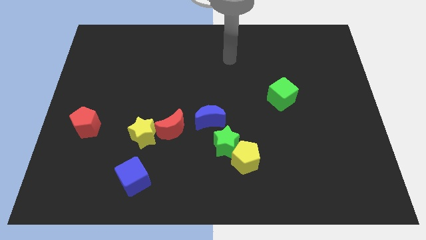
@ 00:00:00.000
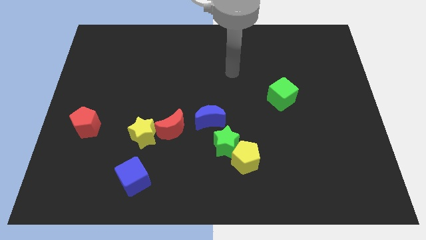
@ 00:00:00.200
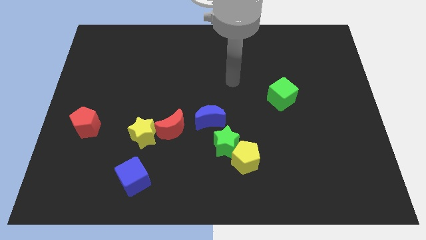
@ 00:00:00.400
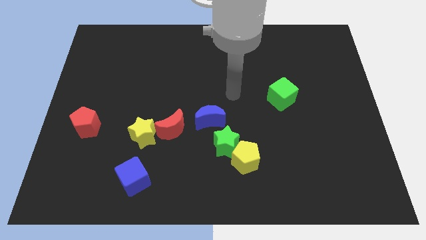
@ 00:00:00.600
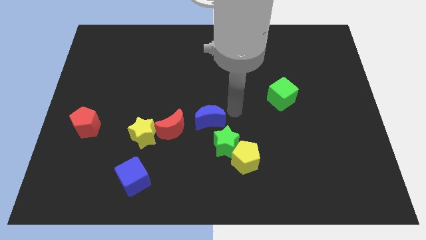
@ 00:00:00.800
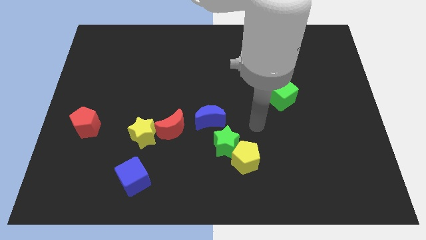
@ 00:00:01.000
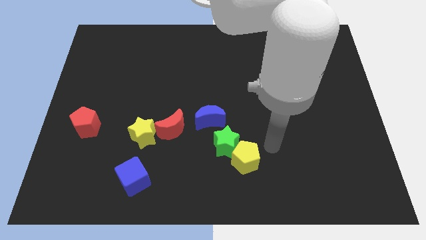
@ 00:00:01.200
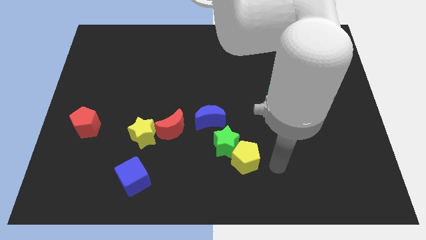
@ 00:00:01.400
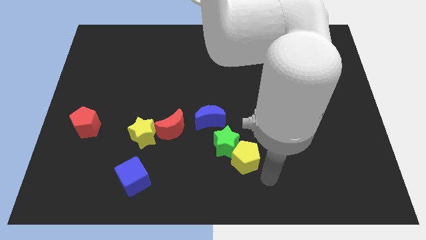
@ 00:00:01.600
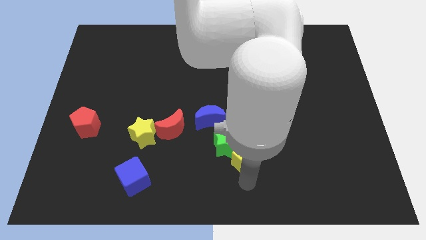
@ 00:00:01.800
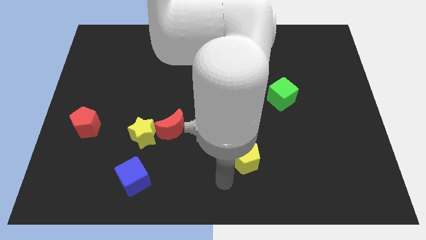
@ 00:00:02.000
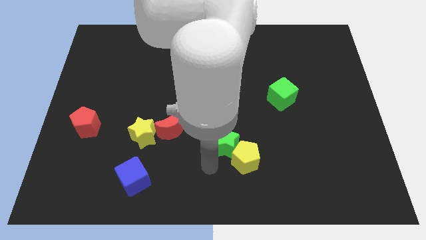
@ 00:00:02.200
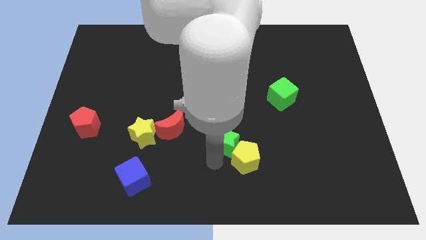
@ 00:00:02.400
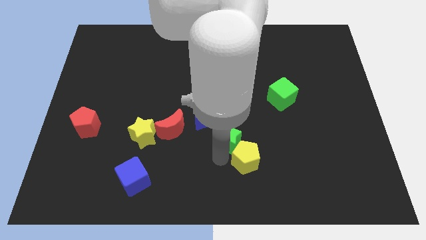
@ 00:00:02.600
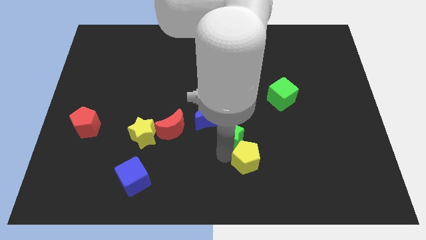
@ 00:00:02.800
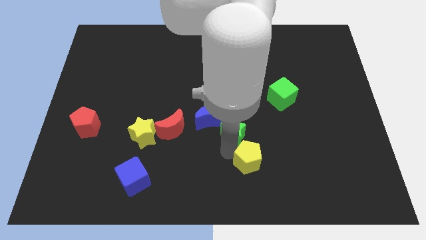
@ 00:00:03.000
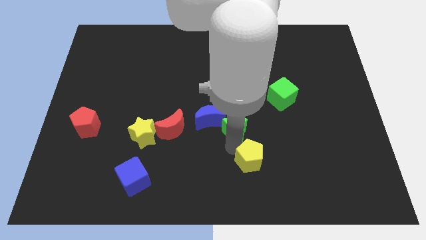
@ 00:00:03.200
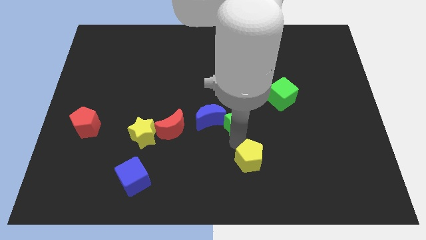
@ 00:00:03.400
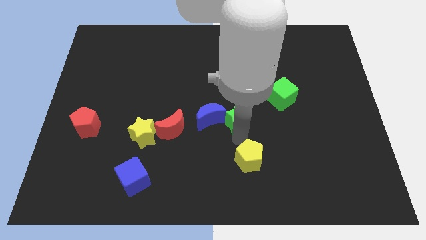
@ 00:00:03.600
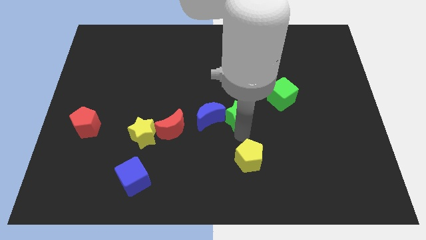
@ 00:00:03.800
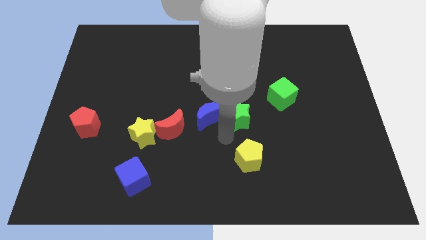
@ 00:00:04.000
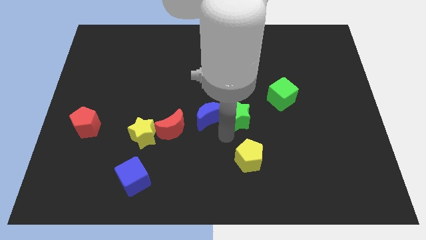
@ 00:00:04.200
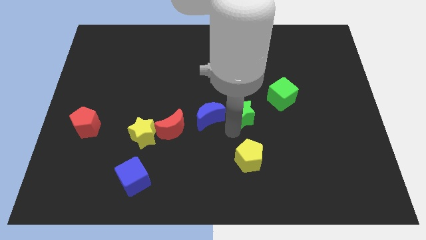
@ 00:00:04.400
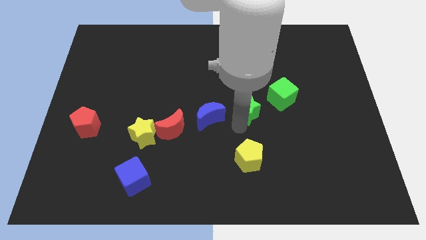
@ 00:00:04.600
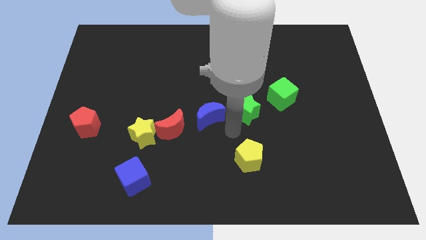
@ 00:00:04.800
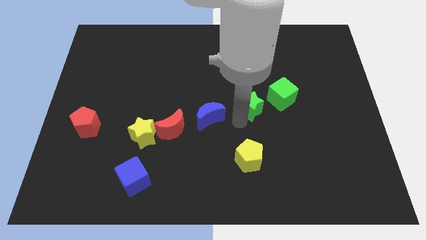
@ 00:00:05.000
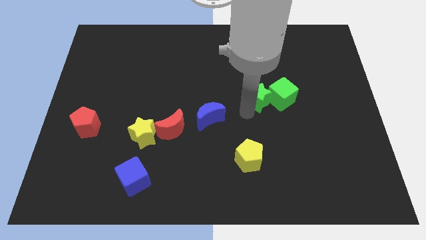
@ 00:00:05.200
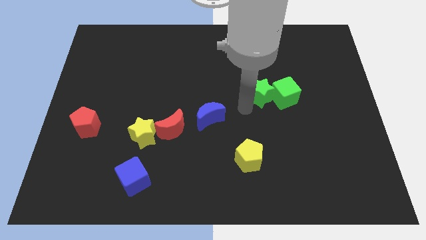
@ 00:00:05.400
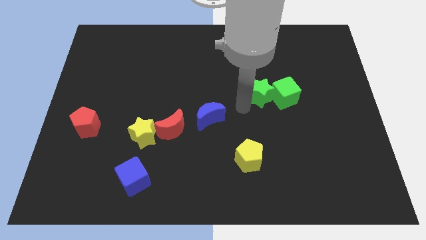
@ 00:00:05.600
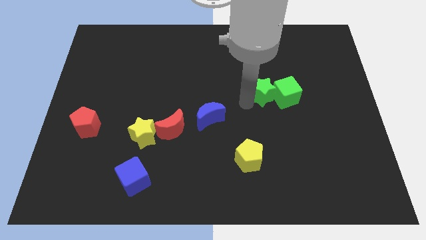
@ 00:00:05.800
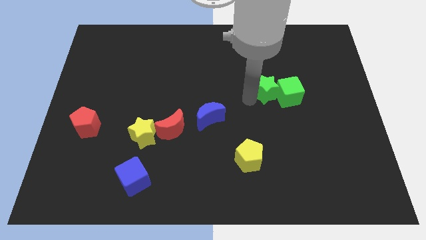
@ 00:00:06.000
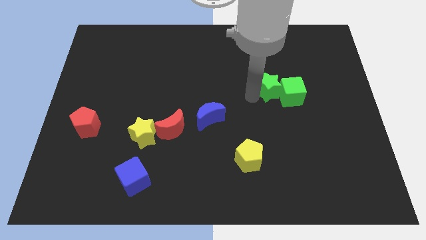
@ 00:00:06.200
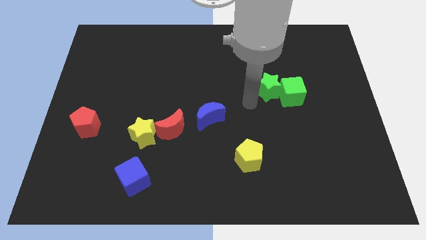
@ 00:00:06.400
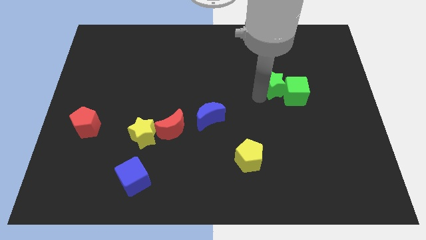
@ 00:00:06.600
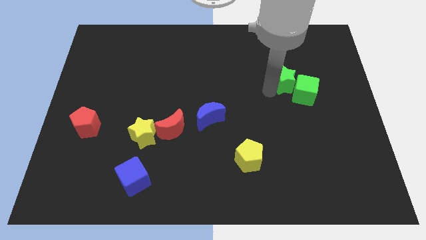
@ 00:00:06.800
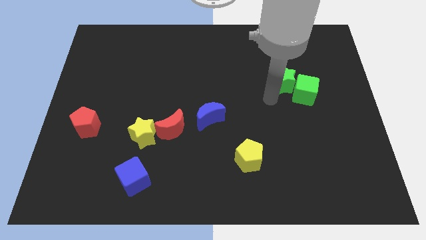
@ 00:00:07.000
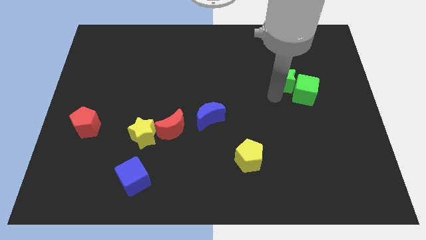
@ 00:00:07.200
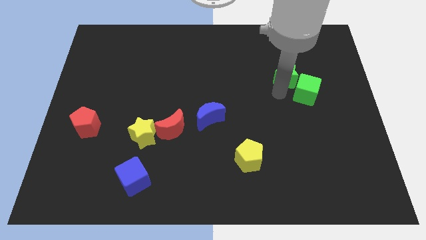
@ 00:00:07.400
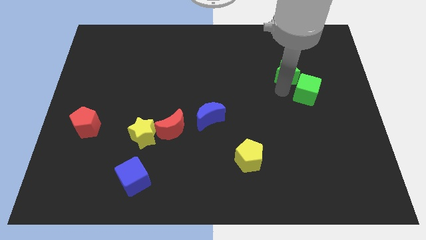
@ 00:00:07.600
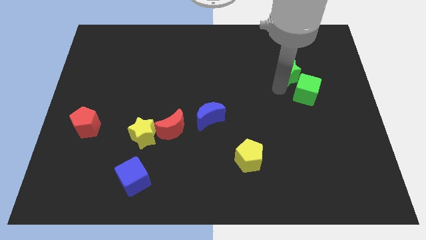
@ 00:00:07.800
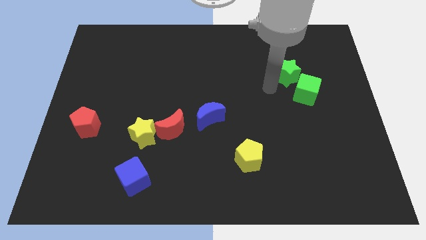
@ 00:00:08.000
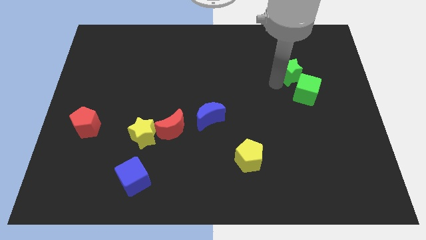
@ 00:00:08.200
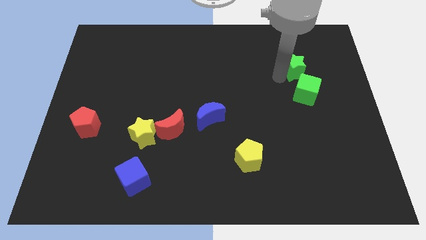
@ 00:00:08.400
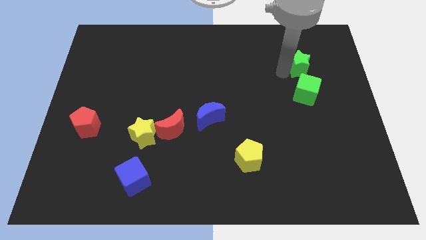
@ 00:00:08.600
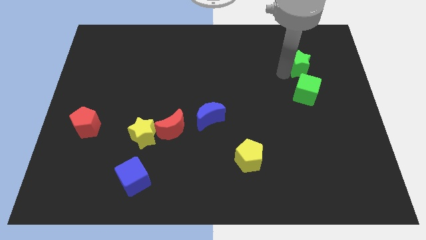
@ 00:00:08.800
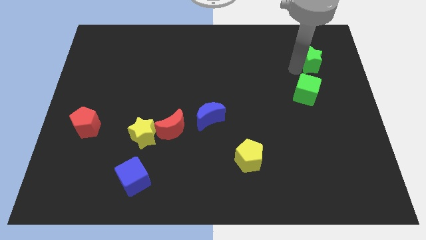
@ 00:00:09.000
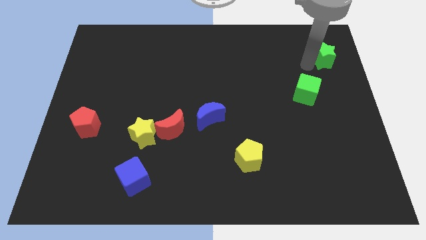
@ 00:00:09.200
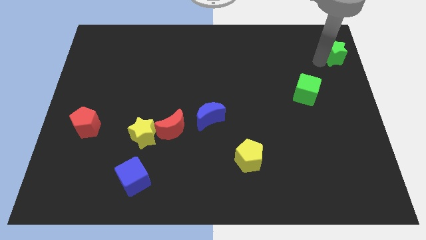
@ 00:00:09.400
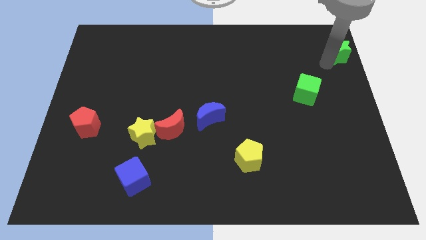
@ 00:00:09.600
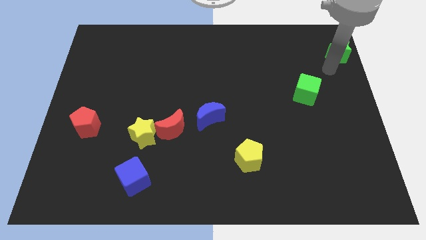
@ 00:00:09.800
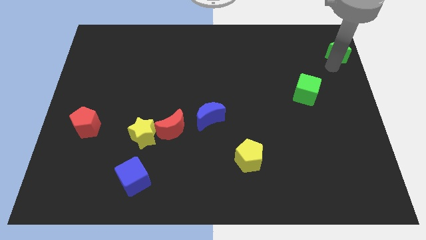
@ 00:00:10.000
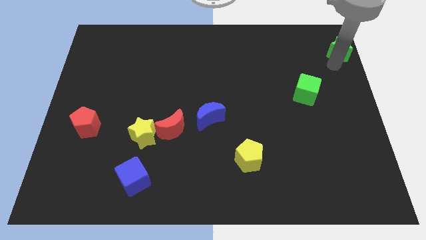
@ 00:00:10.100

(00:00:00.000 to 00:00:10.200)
slide the green star to the top right of the board

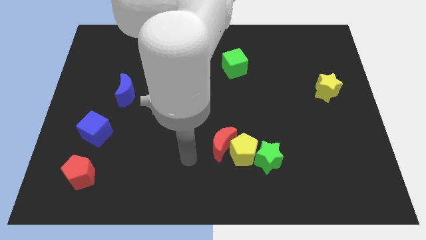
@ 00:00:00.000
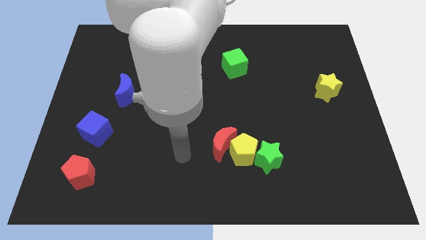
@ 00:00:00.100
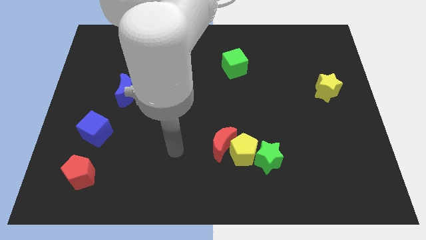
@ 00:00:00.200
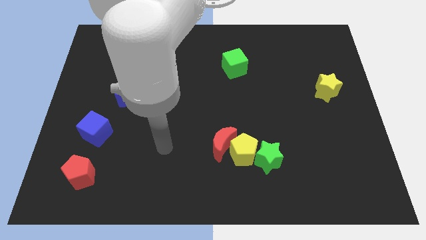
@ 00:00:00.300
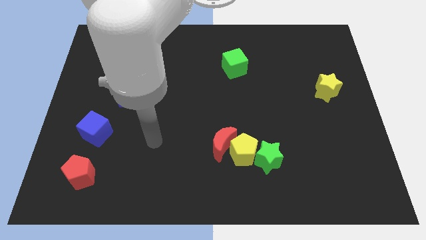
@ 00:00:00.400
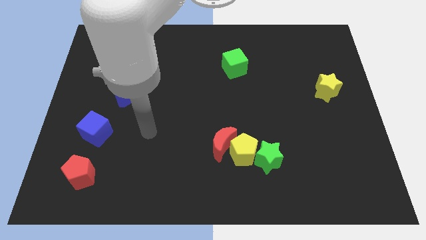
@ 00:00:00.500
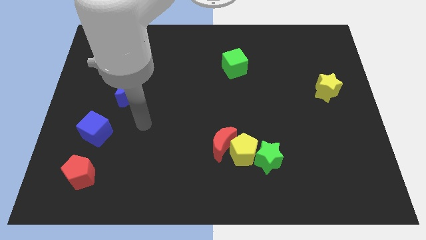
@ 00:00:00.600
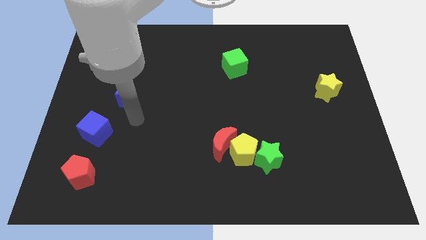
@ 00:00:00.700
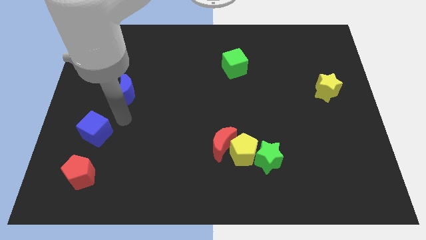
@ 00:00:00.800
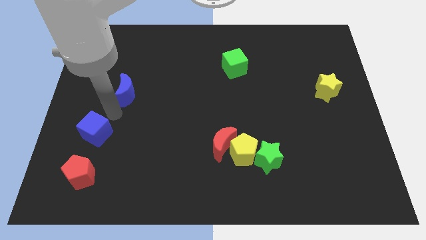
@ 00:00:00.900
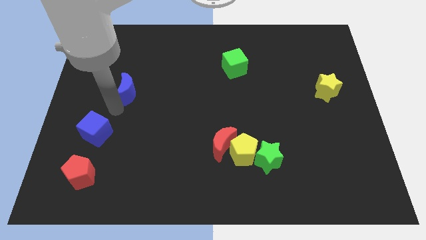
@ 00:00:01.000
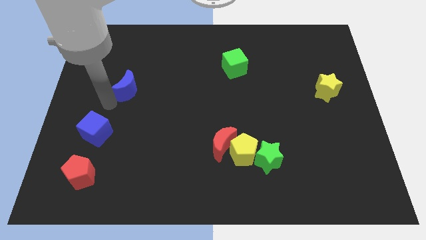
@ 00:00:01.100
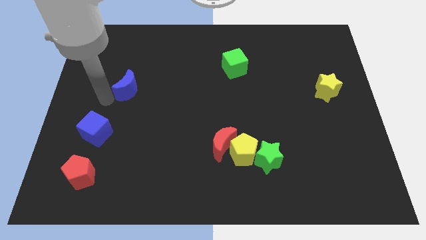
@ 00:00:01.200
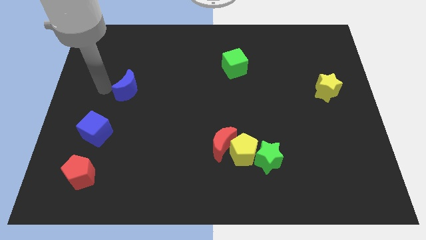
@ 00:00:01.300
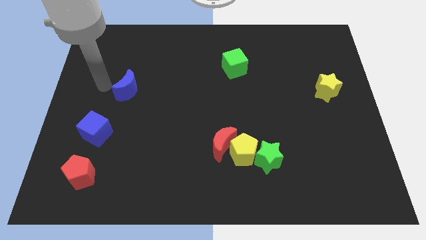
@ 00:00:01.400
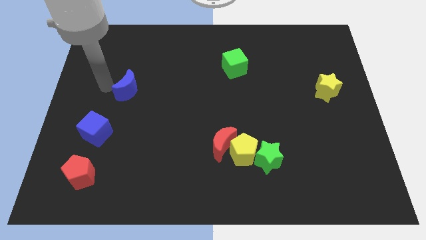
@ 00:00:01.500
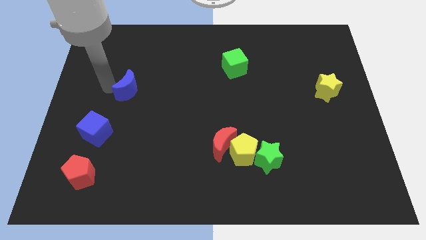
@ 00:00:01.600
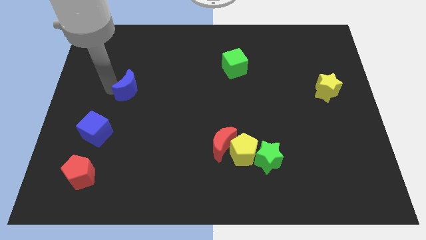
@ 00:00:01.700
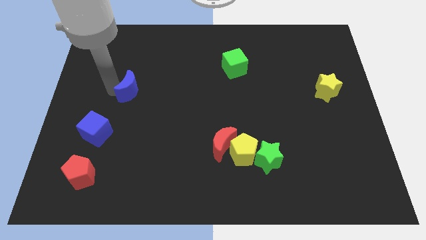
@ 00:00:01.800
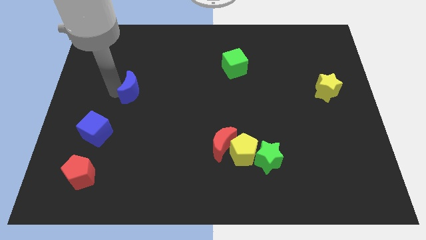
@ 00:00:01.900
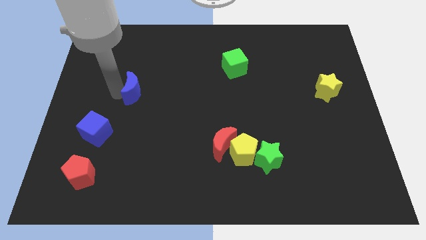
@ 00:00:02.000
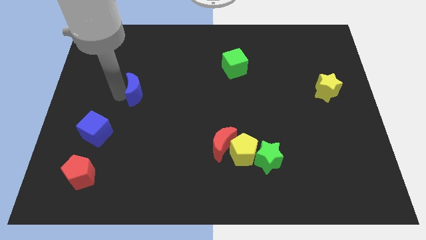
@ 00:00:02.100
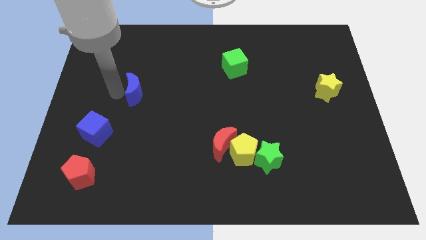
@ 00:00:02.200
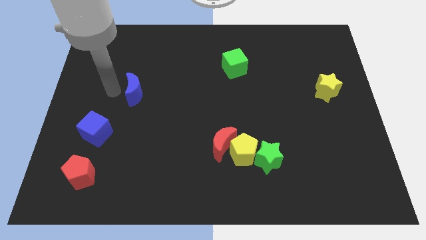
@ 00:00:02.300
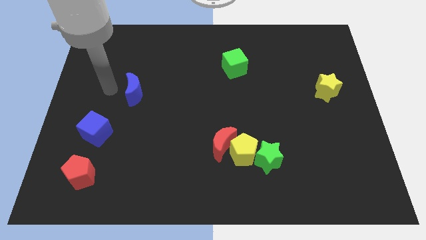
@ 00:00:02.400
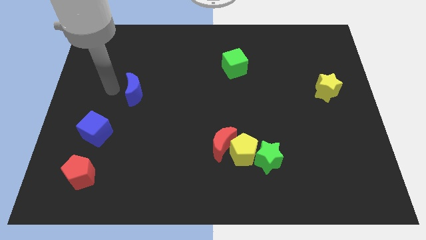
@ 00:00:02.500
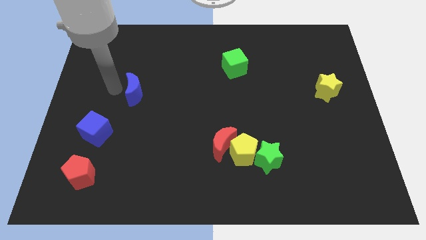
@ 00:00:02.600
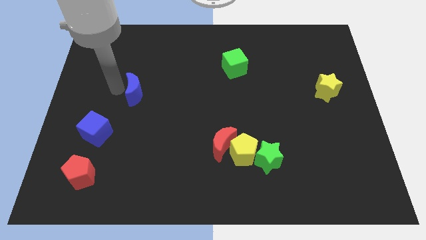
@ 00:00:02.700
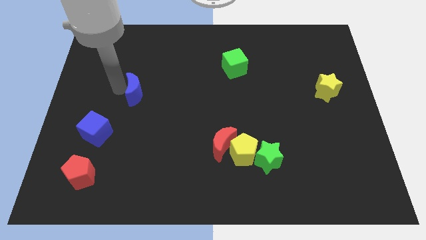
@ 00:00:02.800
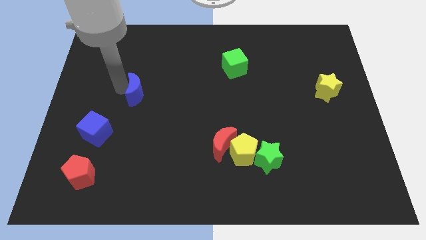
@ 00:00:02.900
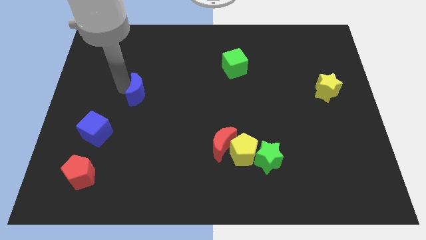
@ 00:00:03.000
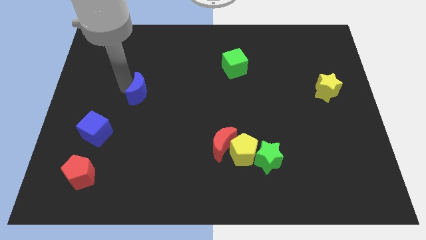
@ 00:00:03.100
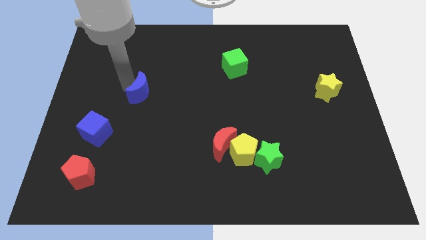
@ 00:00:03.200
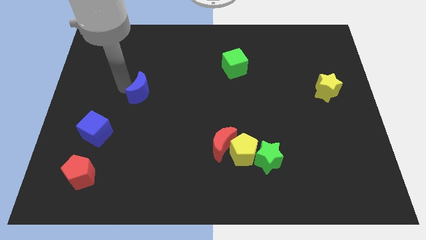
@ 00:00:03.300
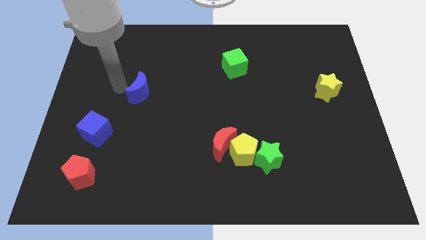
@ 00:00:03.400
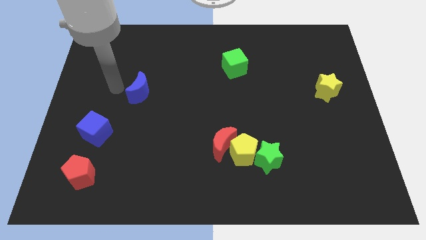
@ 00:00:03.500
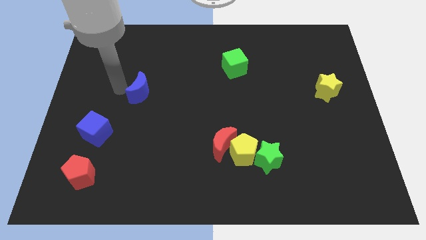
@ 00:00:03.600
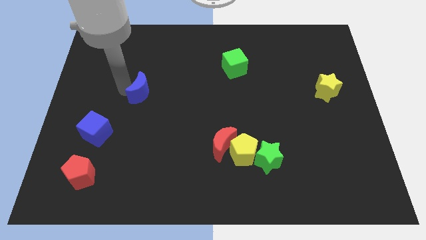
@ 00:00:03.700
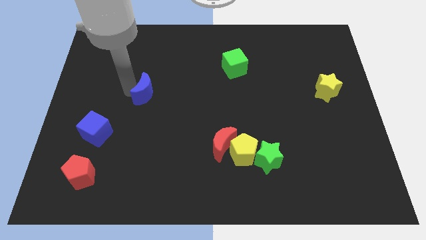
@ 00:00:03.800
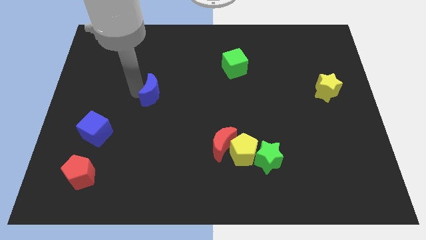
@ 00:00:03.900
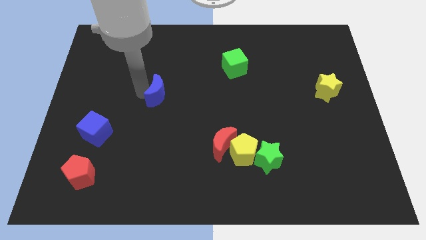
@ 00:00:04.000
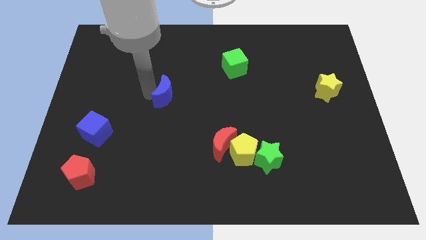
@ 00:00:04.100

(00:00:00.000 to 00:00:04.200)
put the blue moon to the center of the board
